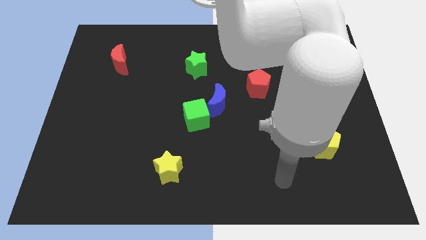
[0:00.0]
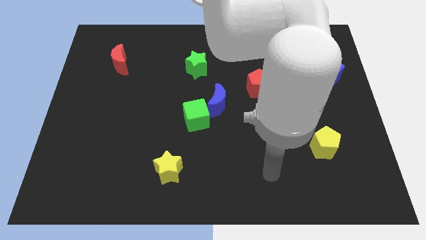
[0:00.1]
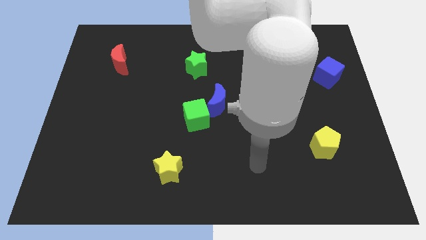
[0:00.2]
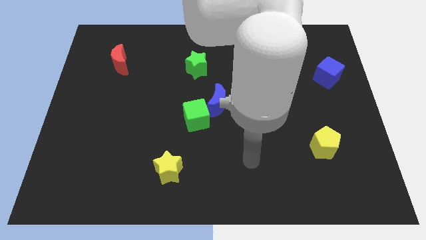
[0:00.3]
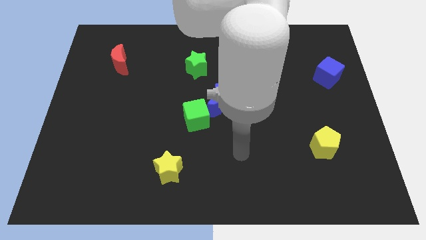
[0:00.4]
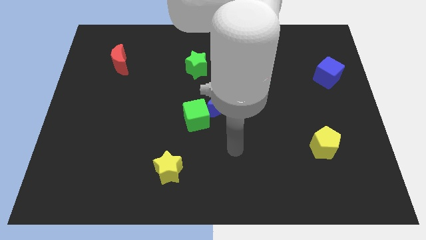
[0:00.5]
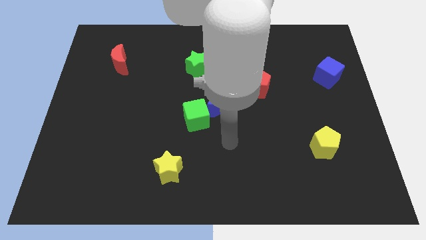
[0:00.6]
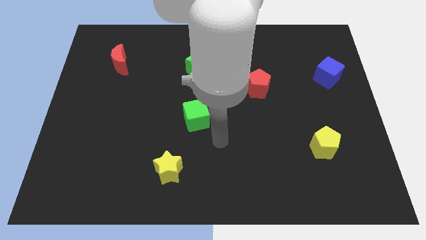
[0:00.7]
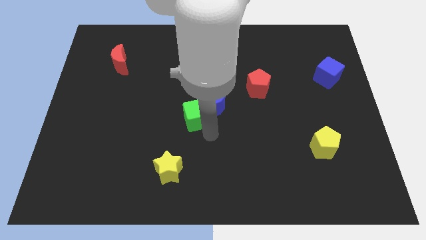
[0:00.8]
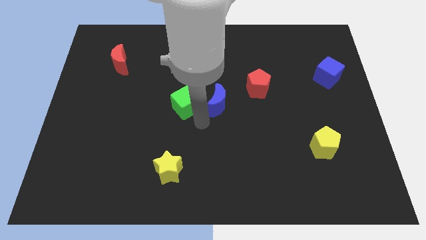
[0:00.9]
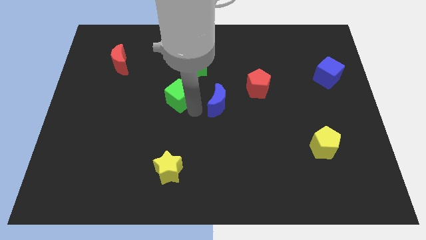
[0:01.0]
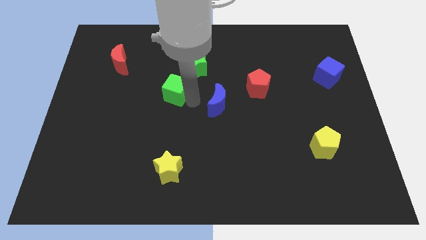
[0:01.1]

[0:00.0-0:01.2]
move the blue moon away from the green cube

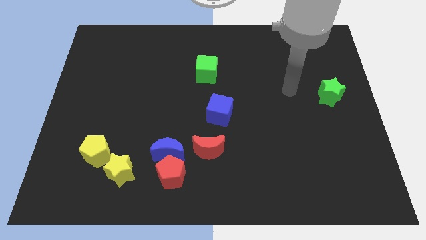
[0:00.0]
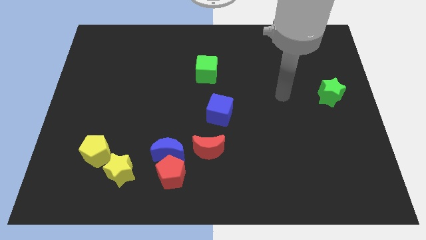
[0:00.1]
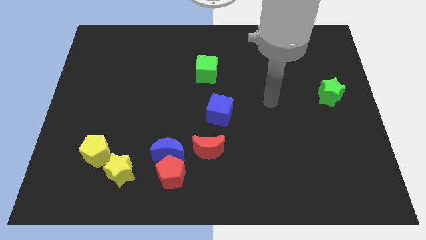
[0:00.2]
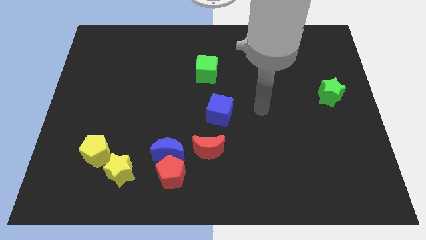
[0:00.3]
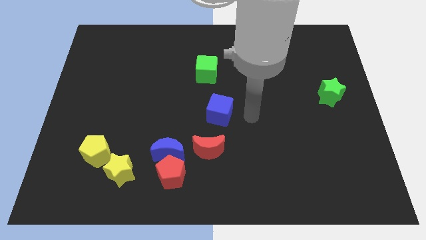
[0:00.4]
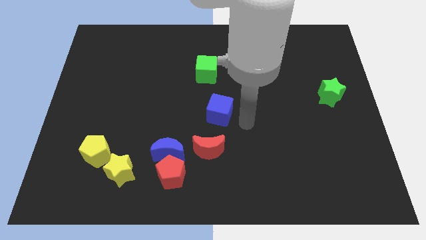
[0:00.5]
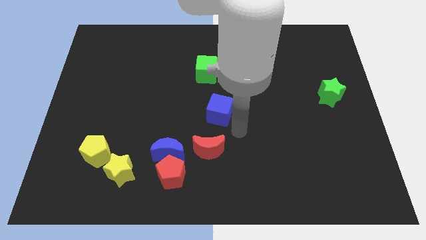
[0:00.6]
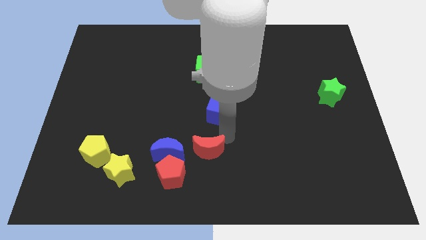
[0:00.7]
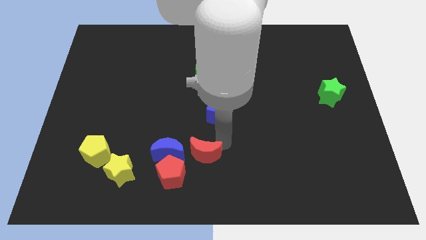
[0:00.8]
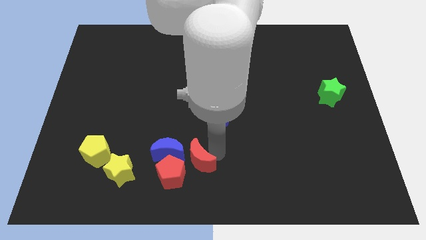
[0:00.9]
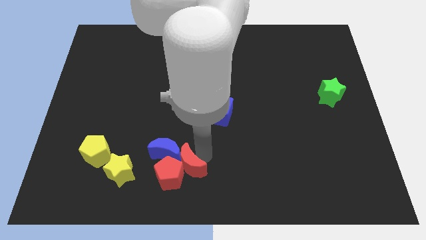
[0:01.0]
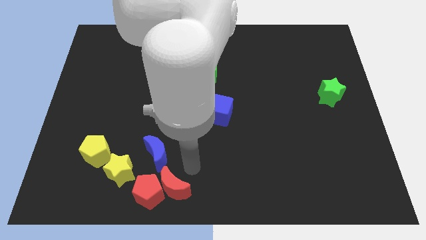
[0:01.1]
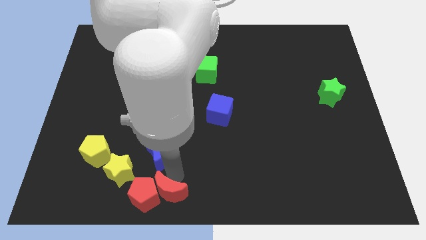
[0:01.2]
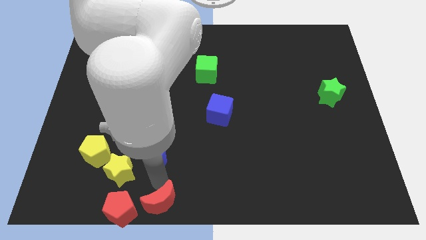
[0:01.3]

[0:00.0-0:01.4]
move the blue moon away from the red pentagon and red moon

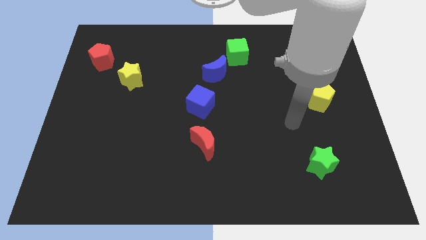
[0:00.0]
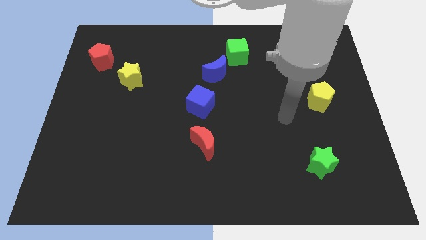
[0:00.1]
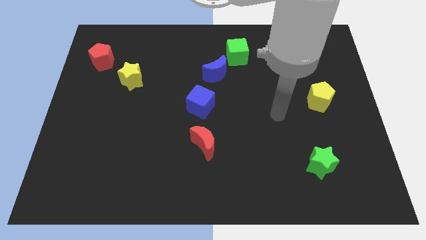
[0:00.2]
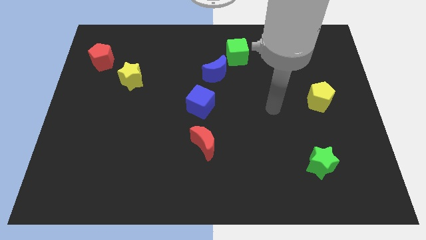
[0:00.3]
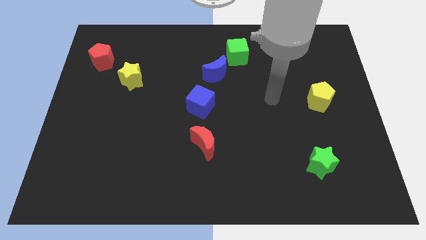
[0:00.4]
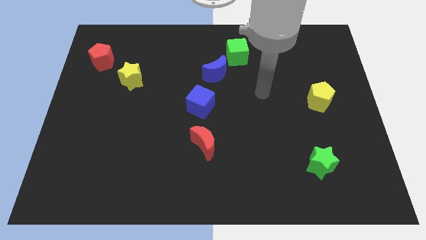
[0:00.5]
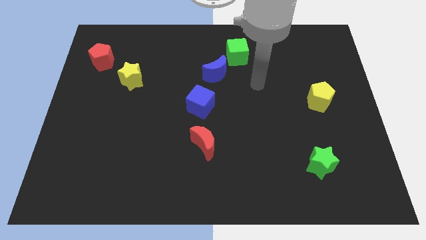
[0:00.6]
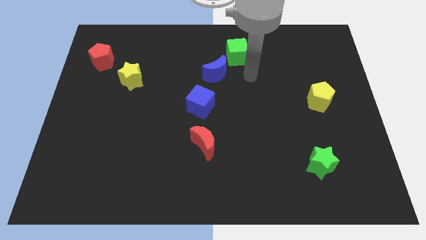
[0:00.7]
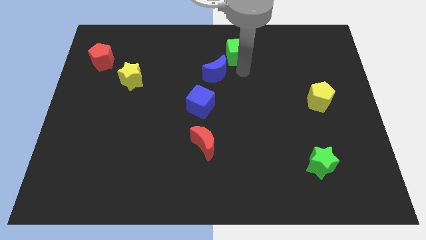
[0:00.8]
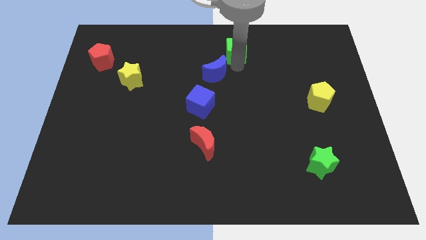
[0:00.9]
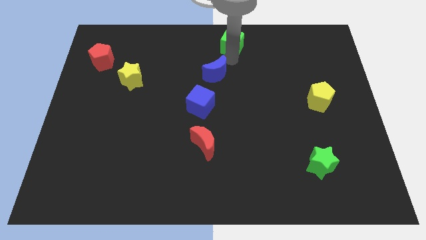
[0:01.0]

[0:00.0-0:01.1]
pull the blue moon apart from the green cube

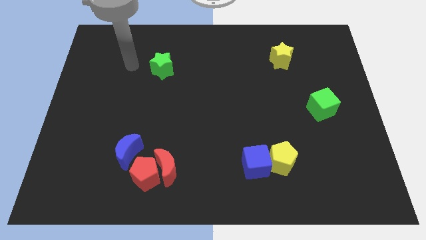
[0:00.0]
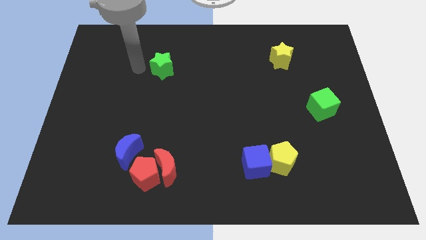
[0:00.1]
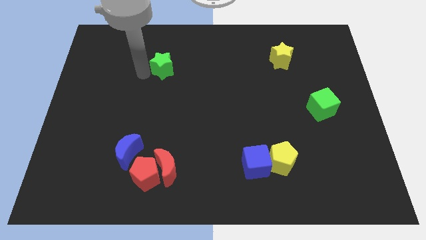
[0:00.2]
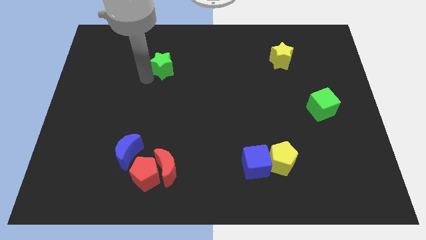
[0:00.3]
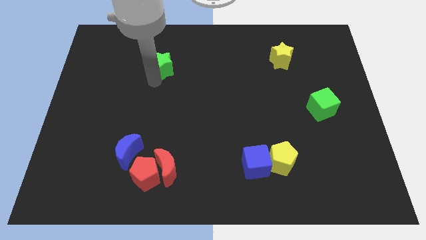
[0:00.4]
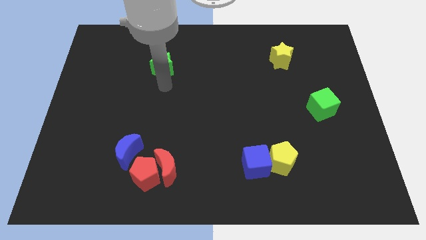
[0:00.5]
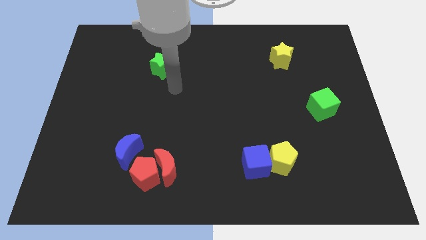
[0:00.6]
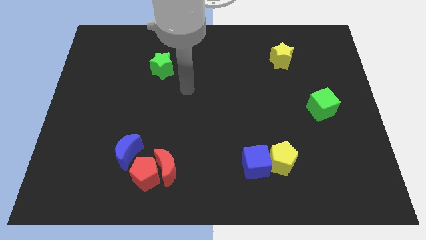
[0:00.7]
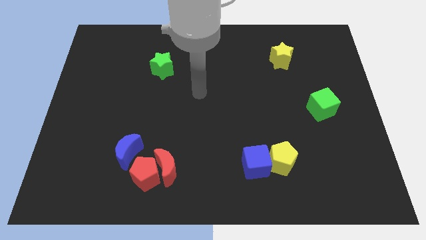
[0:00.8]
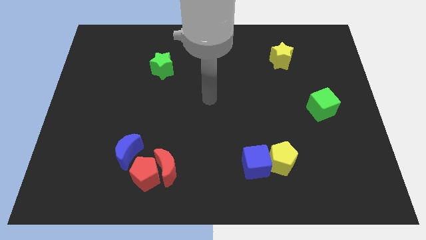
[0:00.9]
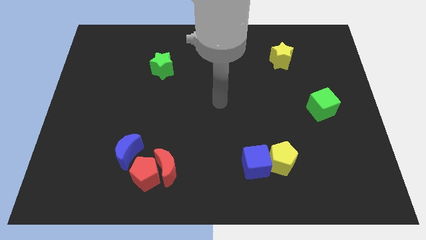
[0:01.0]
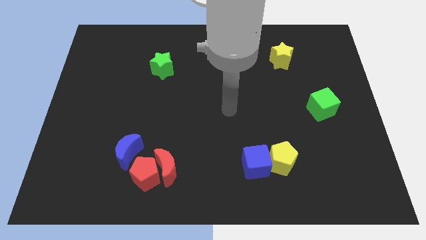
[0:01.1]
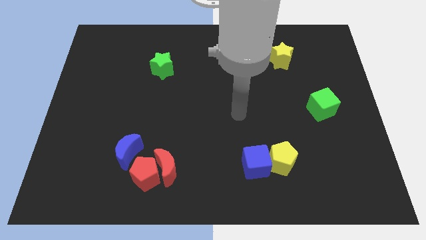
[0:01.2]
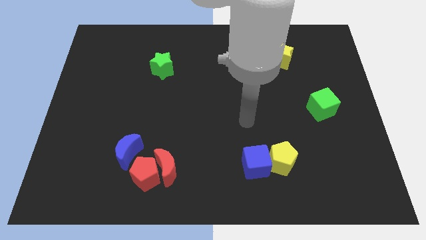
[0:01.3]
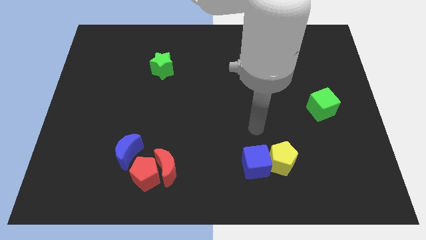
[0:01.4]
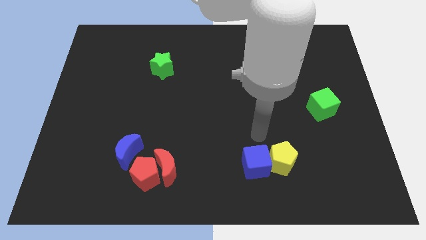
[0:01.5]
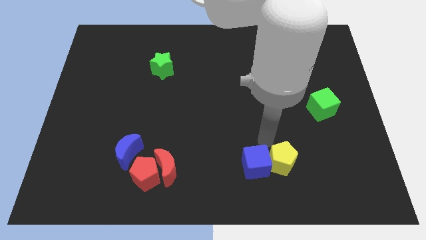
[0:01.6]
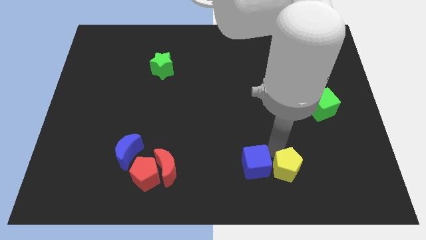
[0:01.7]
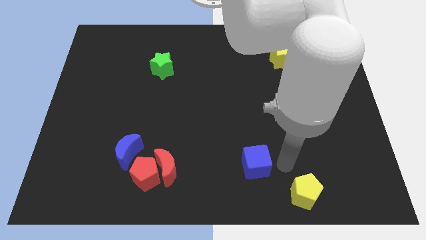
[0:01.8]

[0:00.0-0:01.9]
pull the blue cube apart from the yellow pentagon

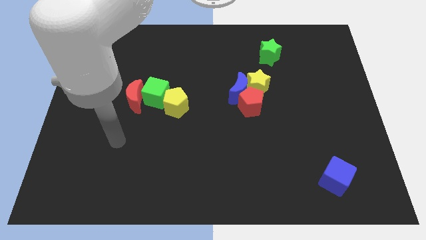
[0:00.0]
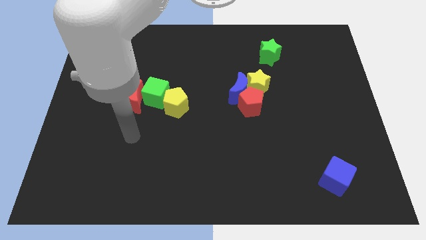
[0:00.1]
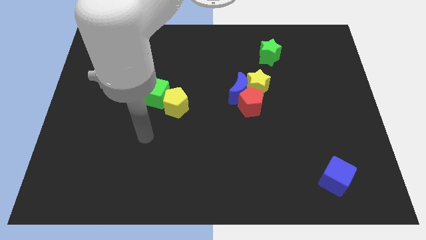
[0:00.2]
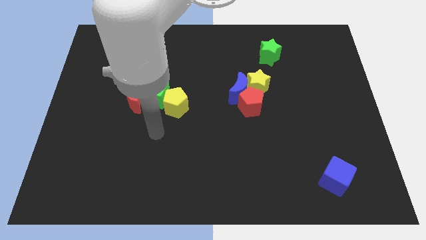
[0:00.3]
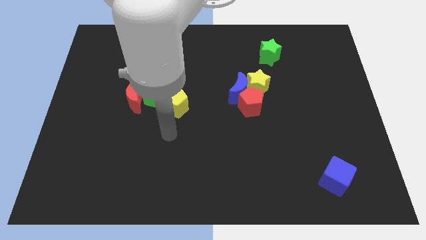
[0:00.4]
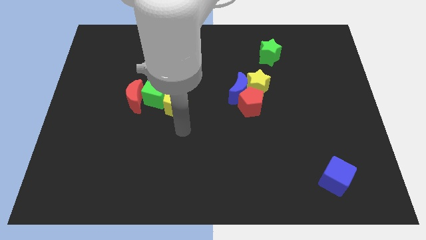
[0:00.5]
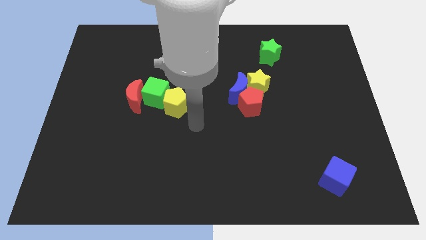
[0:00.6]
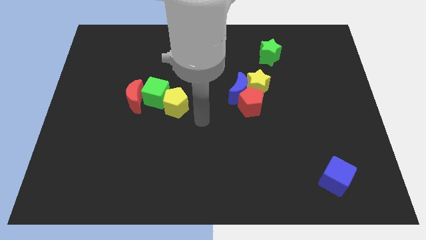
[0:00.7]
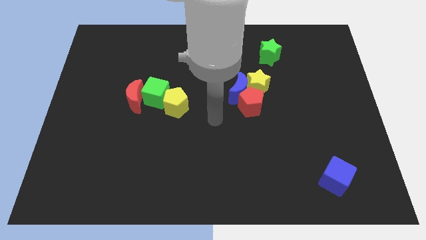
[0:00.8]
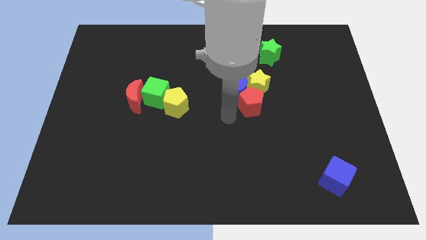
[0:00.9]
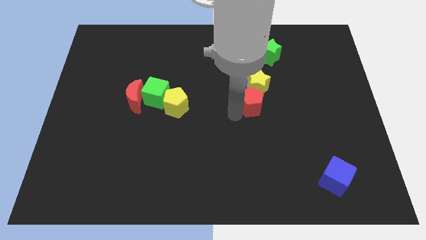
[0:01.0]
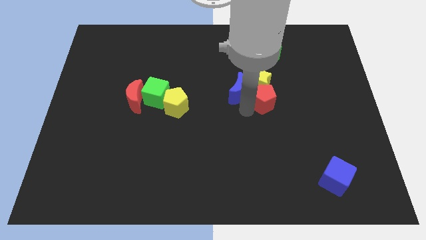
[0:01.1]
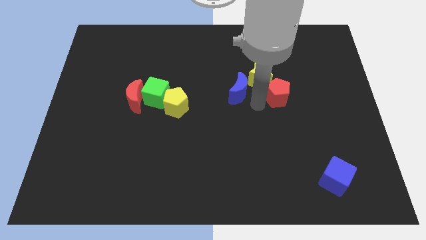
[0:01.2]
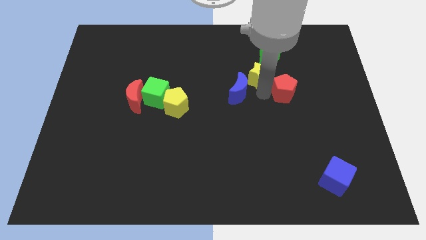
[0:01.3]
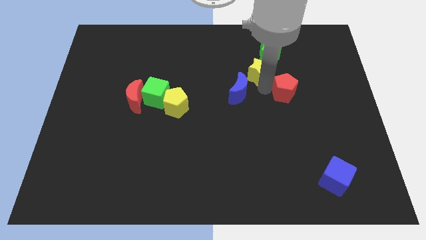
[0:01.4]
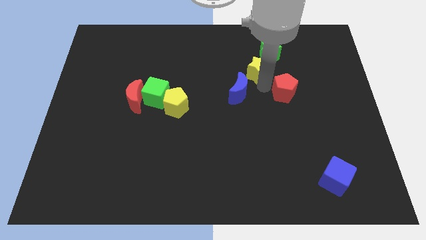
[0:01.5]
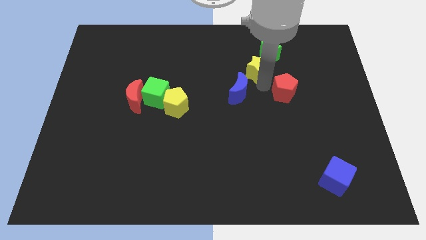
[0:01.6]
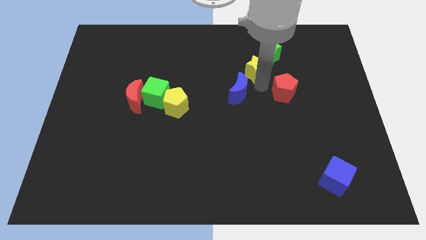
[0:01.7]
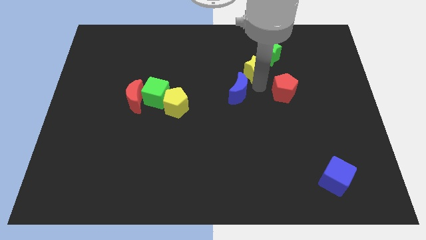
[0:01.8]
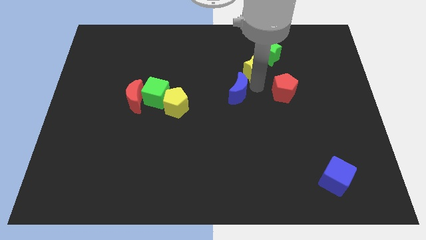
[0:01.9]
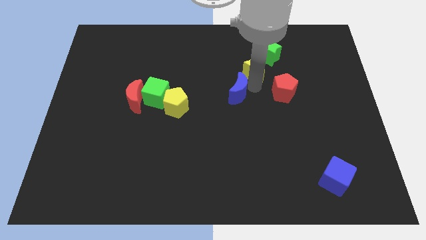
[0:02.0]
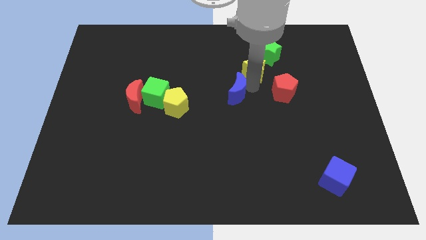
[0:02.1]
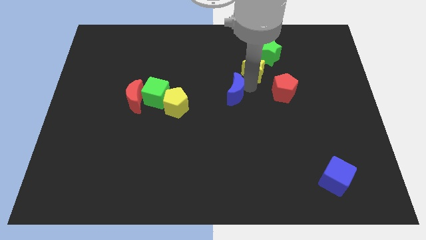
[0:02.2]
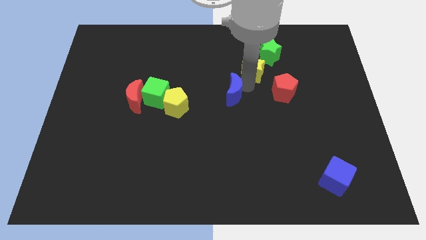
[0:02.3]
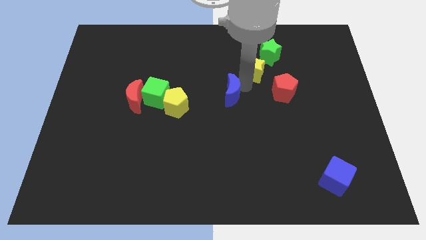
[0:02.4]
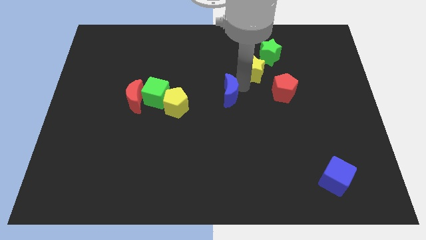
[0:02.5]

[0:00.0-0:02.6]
move the blue moon away from the yellow star and red pentagon

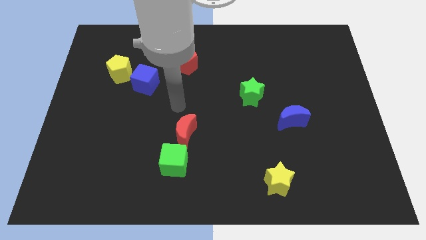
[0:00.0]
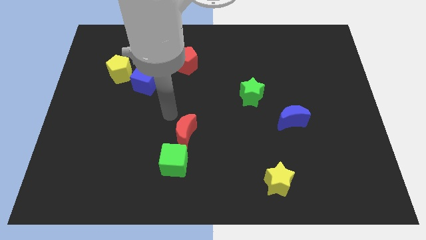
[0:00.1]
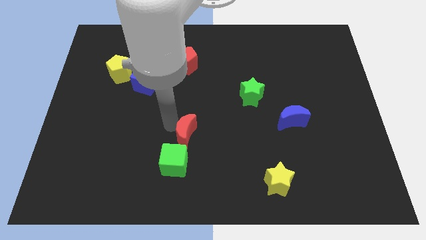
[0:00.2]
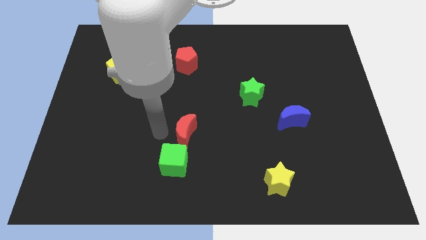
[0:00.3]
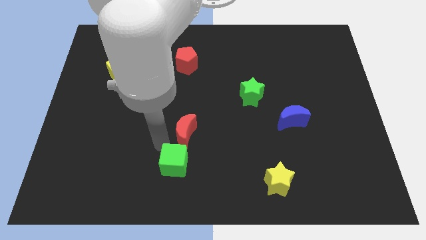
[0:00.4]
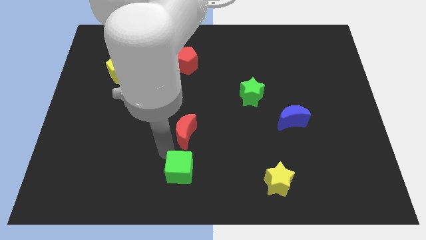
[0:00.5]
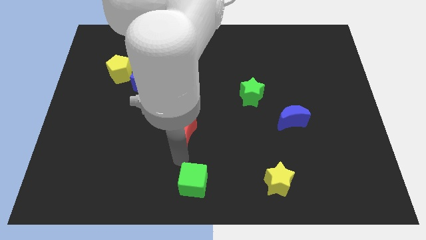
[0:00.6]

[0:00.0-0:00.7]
separate the red moon from the green cube

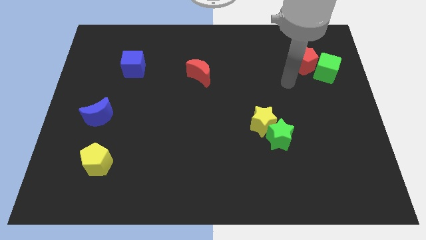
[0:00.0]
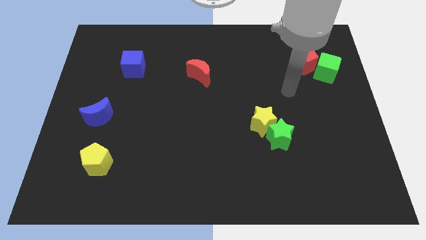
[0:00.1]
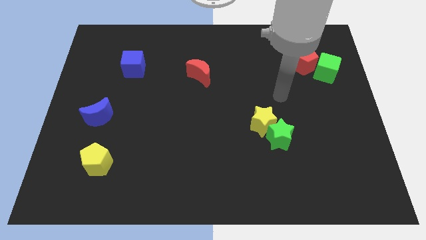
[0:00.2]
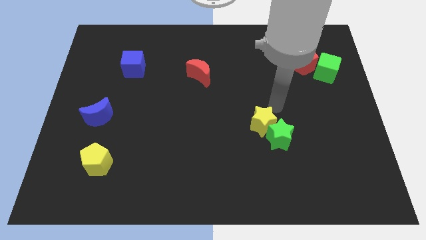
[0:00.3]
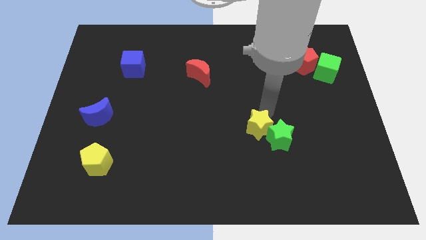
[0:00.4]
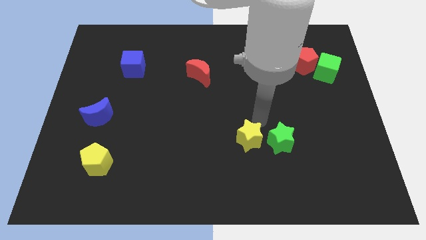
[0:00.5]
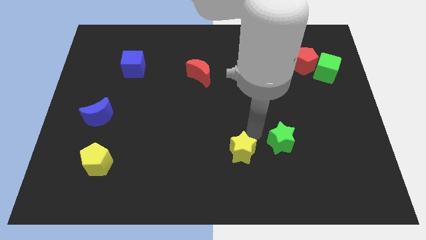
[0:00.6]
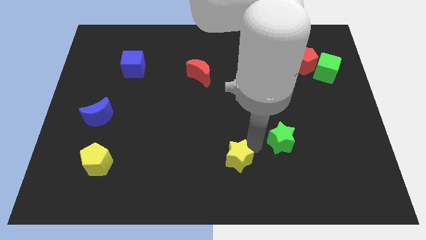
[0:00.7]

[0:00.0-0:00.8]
pull the green star apart from the yellow star
